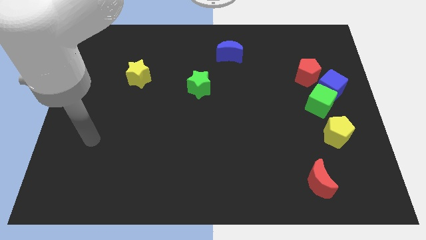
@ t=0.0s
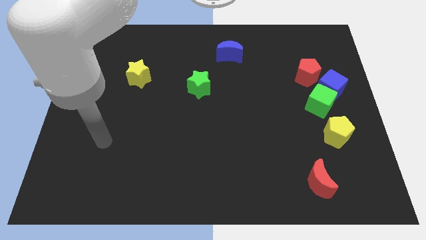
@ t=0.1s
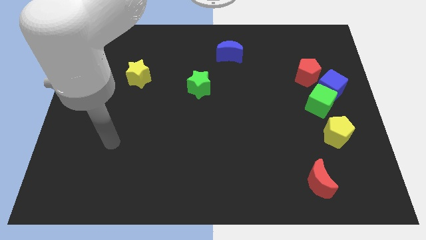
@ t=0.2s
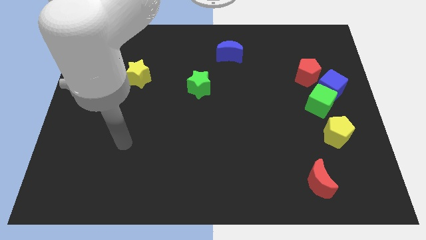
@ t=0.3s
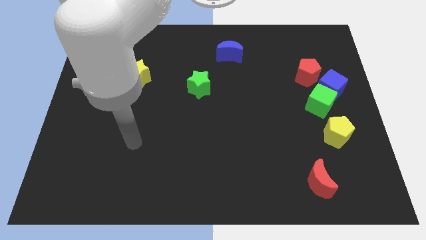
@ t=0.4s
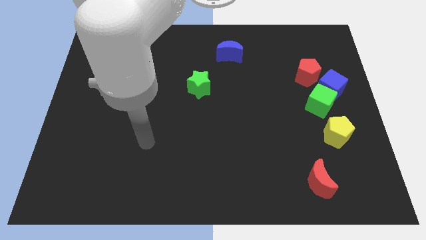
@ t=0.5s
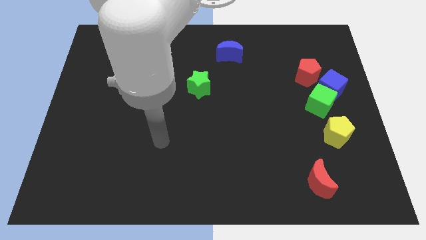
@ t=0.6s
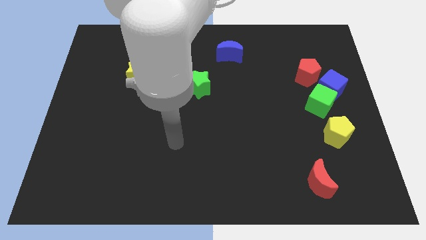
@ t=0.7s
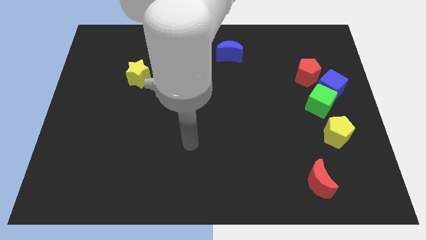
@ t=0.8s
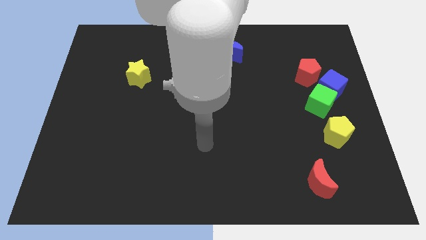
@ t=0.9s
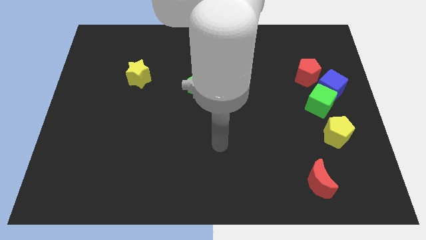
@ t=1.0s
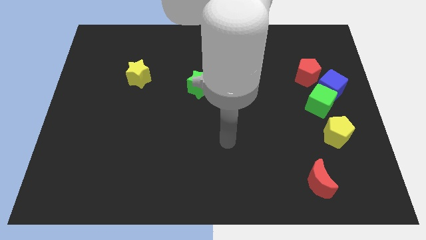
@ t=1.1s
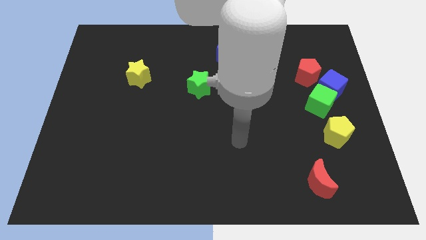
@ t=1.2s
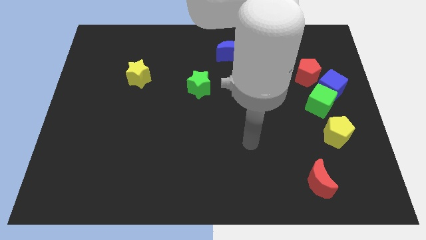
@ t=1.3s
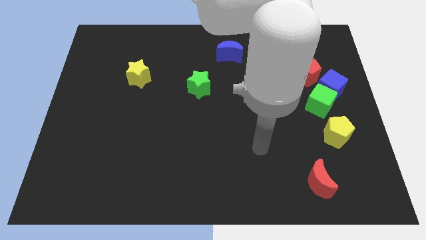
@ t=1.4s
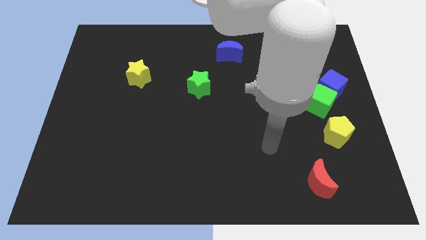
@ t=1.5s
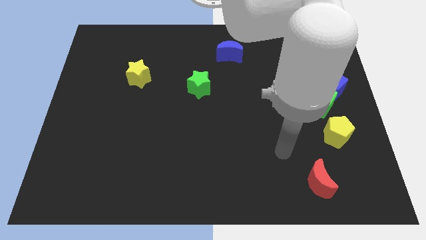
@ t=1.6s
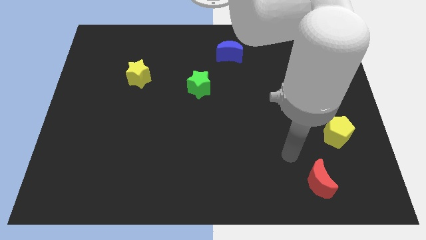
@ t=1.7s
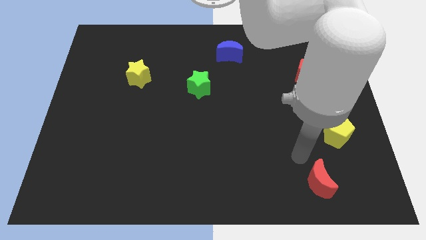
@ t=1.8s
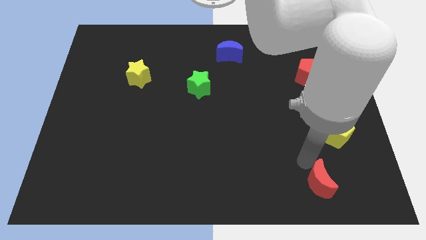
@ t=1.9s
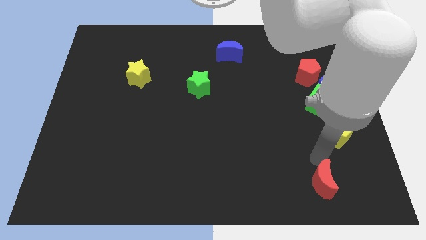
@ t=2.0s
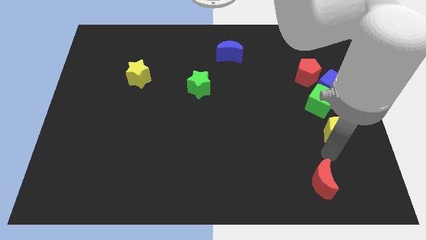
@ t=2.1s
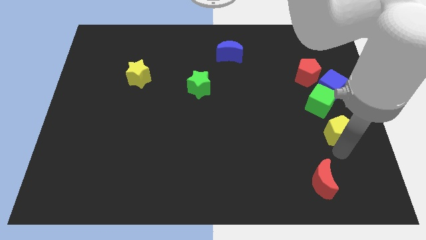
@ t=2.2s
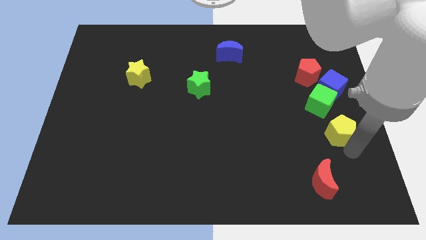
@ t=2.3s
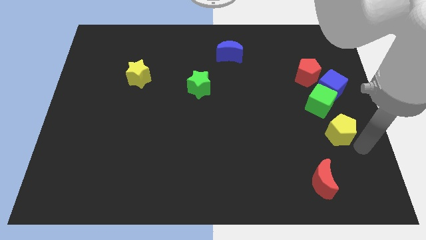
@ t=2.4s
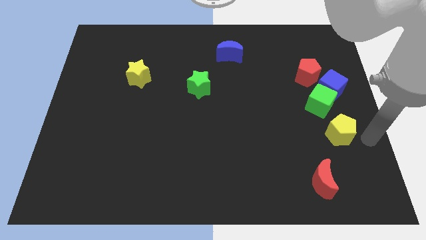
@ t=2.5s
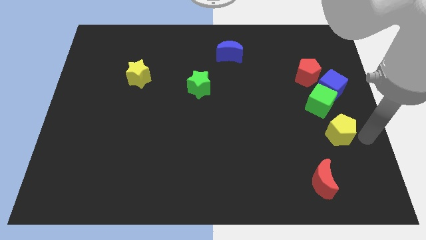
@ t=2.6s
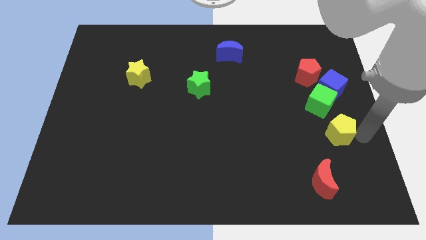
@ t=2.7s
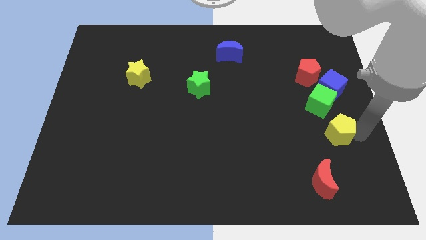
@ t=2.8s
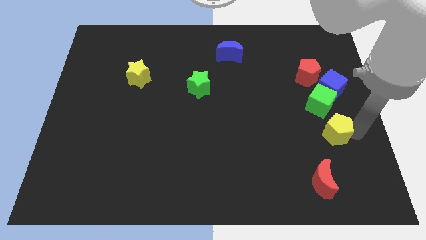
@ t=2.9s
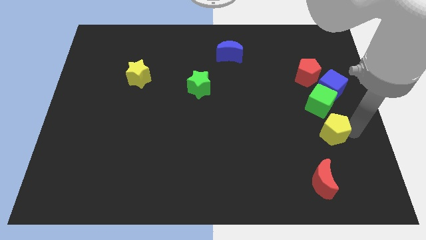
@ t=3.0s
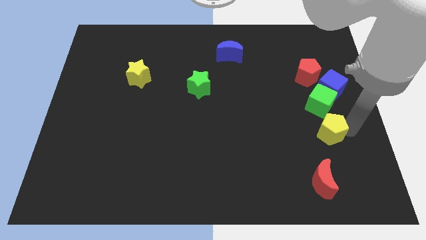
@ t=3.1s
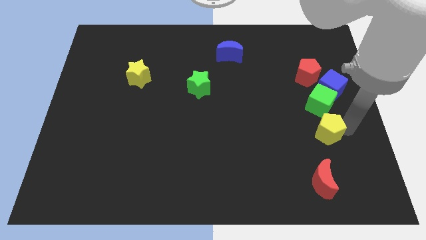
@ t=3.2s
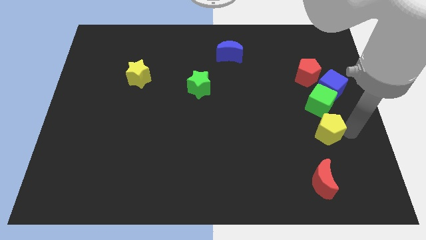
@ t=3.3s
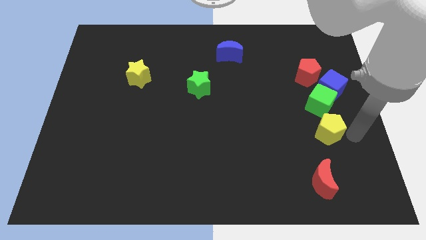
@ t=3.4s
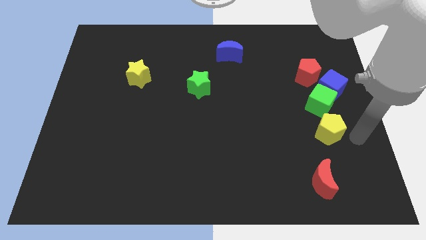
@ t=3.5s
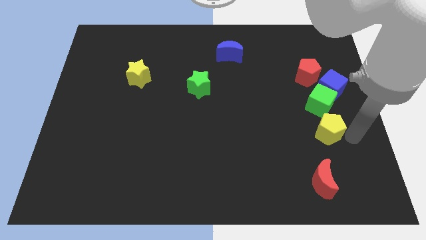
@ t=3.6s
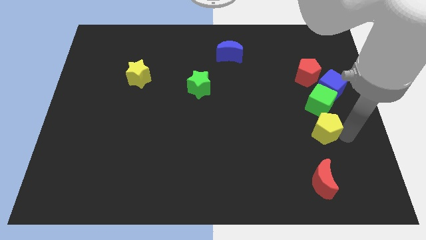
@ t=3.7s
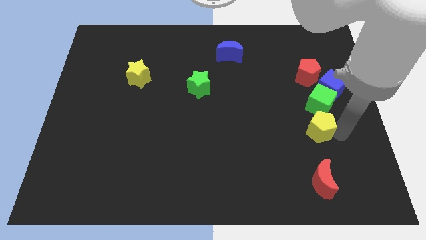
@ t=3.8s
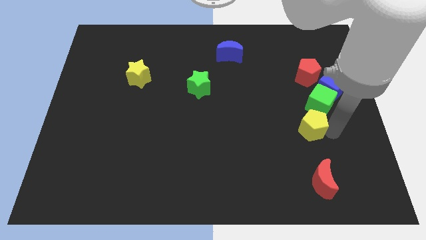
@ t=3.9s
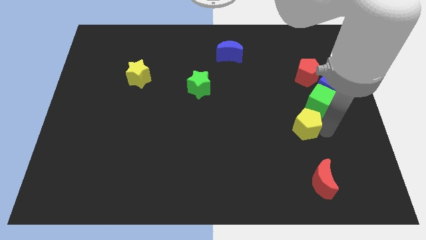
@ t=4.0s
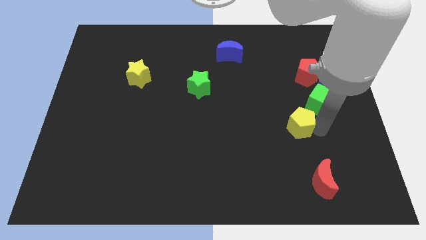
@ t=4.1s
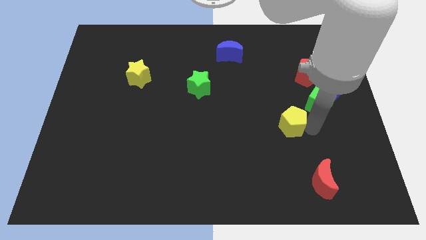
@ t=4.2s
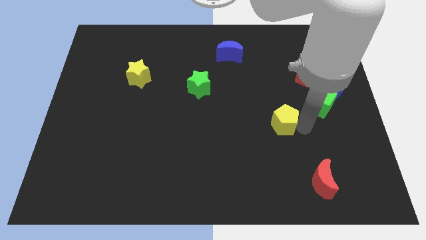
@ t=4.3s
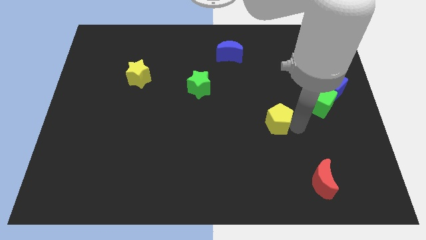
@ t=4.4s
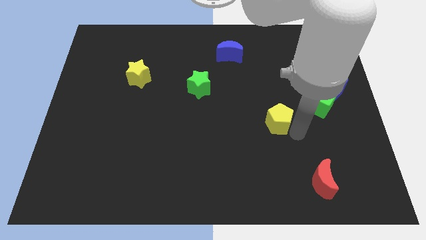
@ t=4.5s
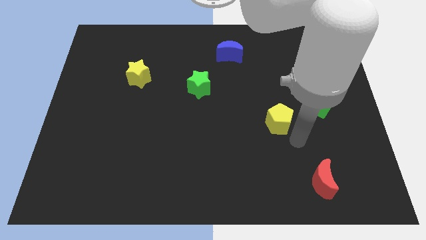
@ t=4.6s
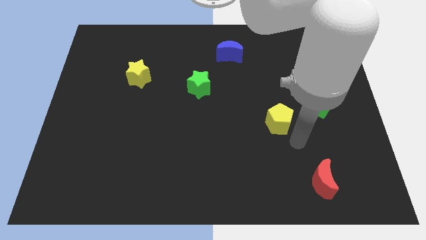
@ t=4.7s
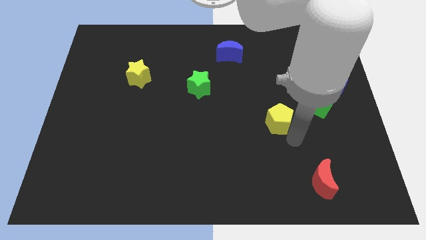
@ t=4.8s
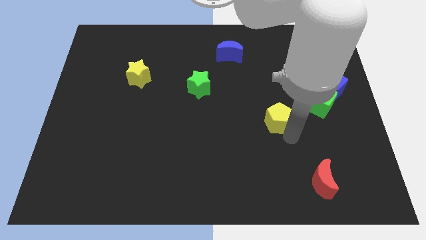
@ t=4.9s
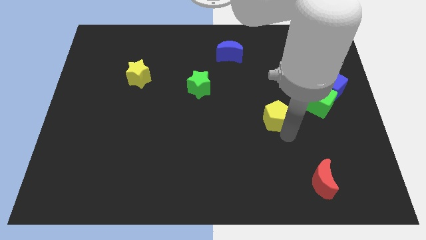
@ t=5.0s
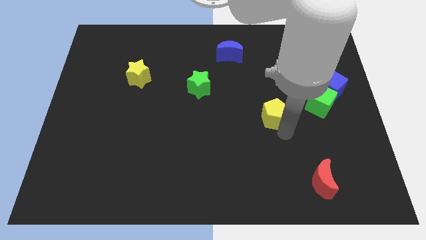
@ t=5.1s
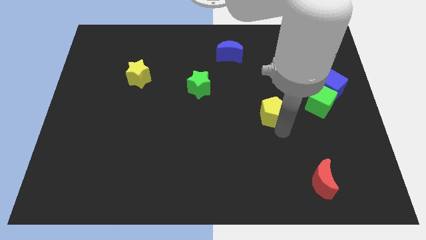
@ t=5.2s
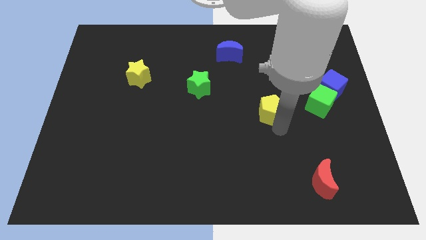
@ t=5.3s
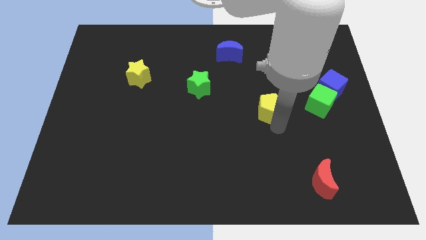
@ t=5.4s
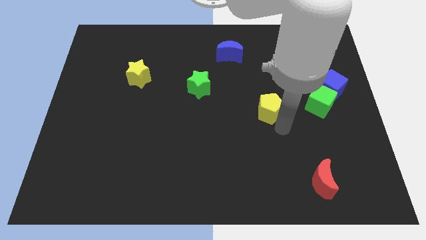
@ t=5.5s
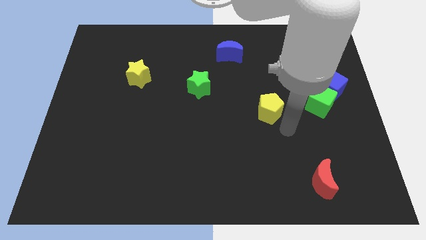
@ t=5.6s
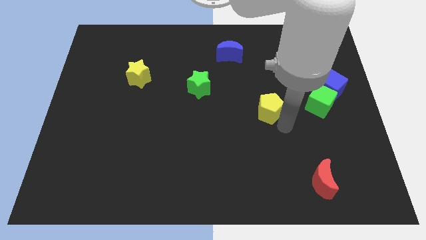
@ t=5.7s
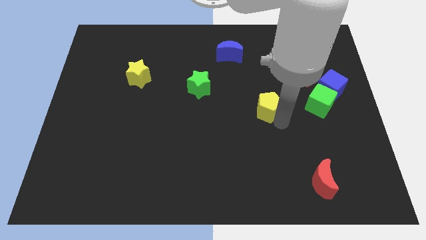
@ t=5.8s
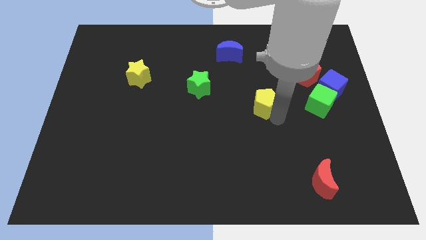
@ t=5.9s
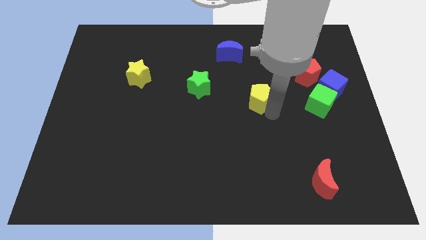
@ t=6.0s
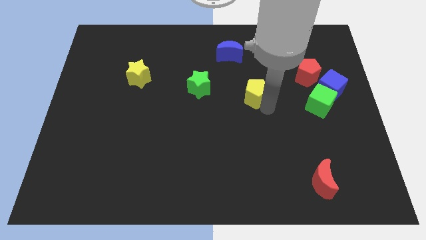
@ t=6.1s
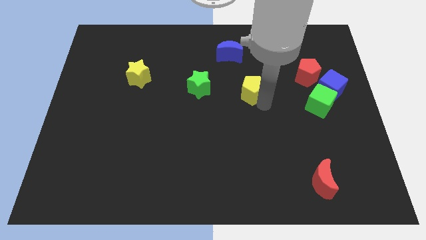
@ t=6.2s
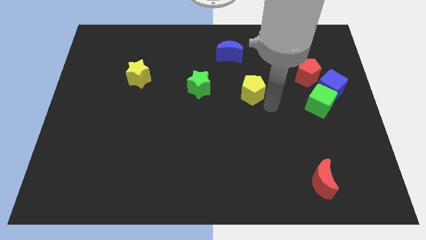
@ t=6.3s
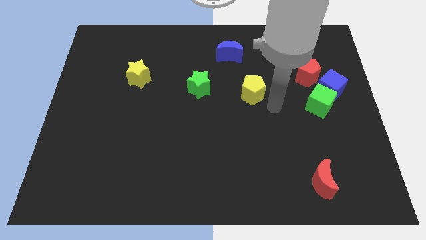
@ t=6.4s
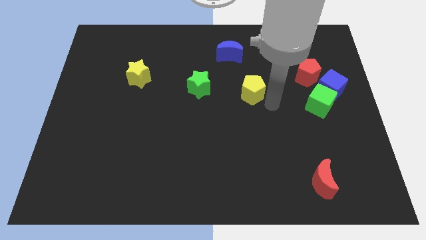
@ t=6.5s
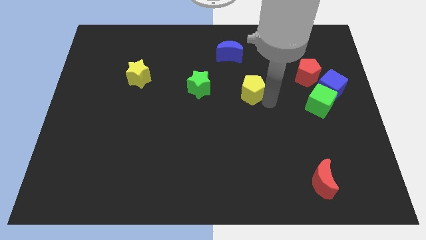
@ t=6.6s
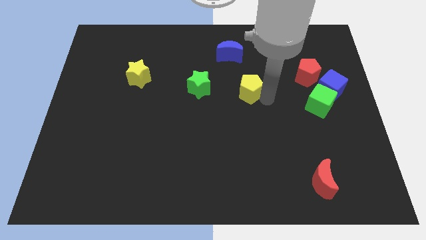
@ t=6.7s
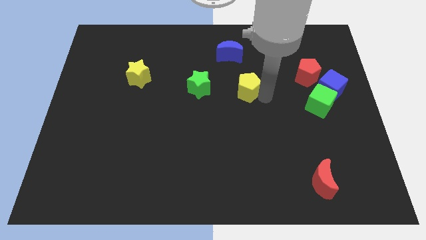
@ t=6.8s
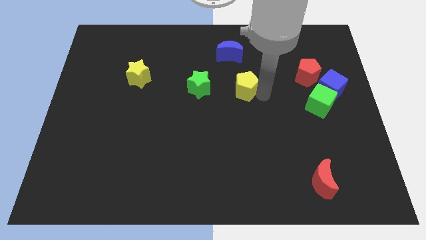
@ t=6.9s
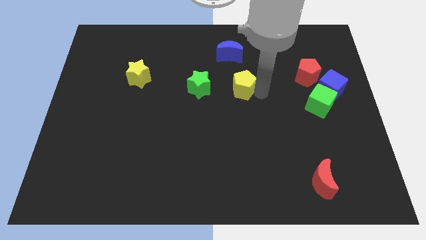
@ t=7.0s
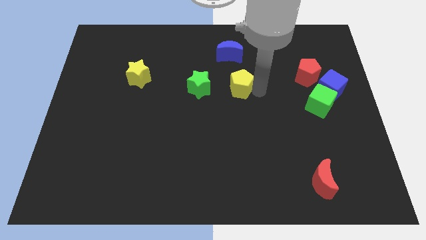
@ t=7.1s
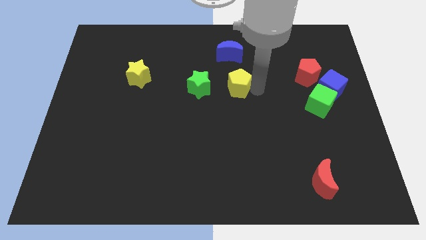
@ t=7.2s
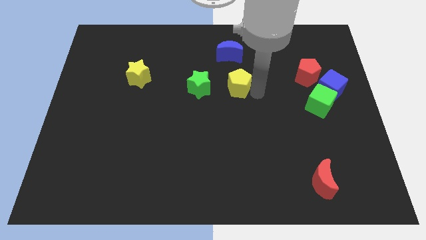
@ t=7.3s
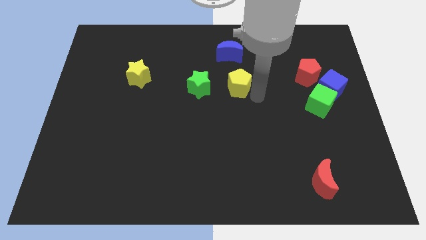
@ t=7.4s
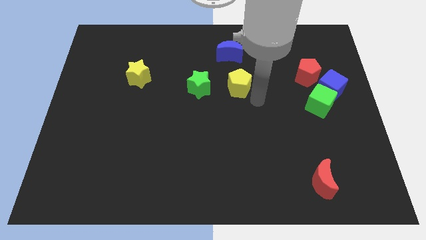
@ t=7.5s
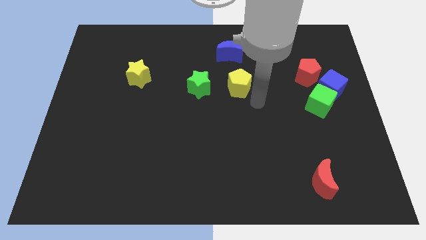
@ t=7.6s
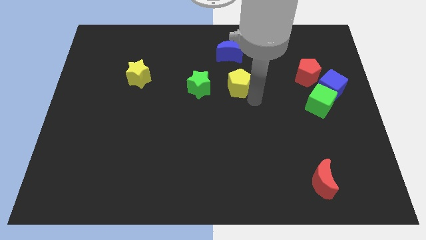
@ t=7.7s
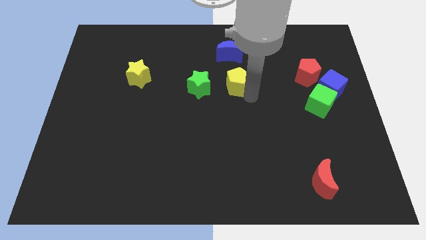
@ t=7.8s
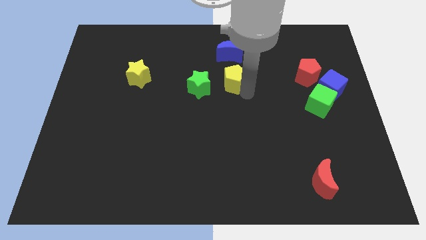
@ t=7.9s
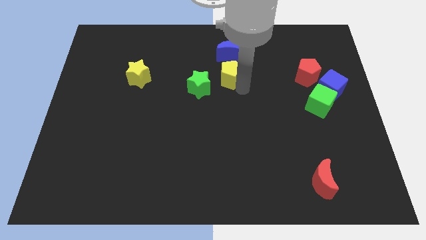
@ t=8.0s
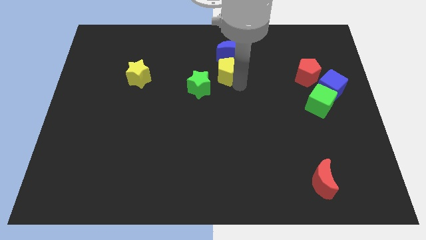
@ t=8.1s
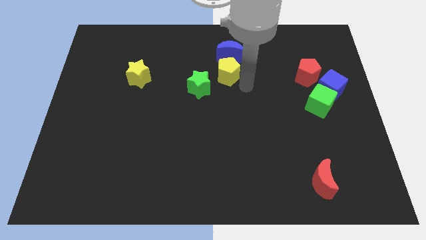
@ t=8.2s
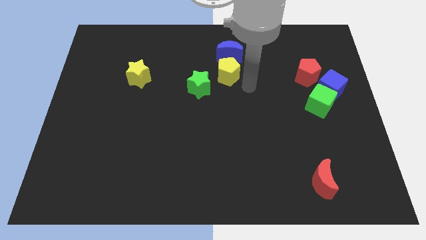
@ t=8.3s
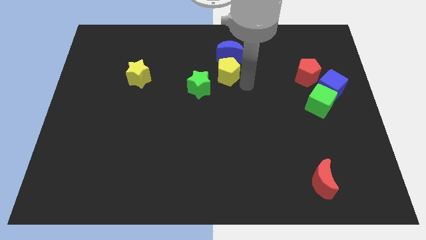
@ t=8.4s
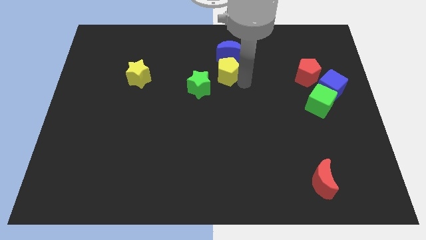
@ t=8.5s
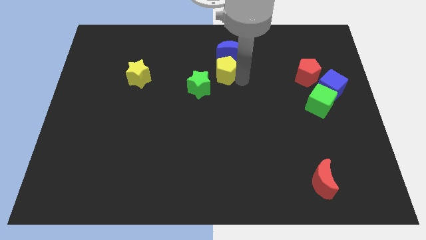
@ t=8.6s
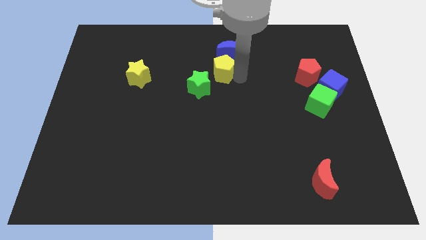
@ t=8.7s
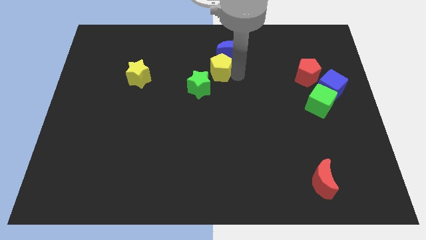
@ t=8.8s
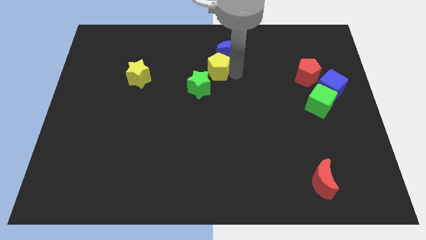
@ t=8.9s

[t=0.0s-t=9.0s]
slide the yellow pentagon to the top of the green star
